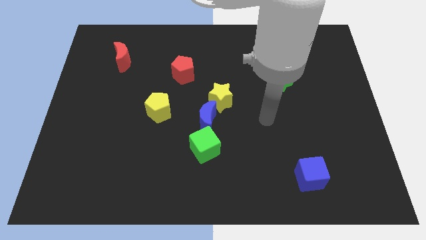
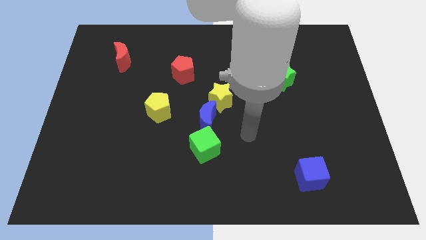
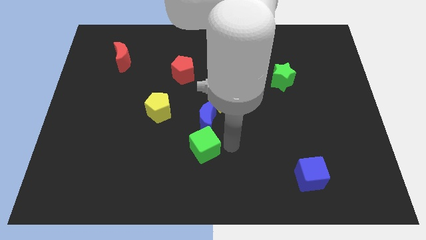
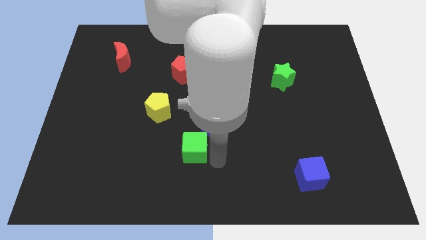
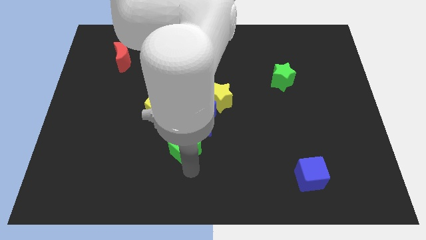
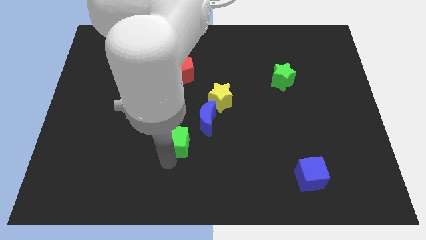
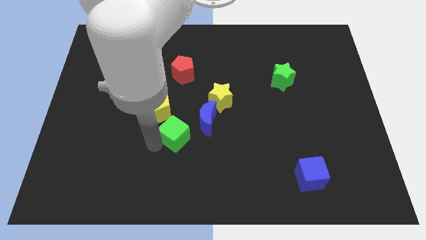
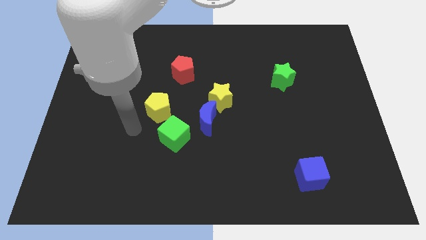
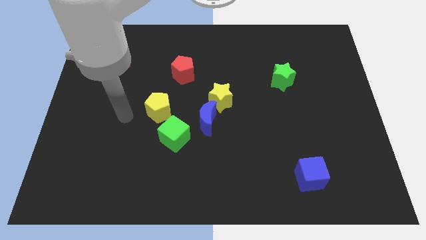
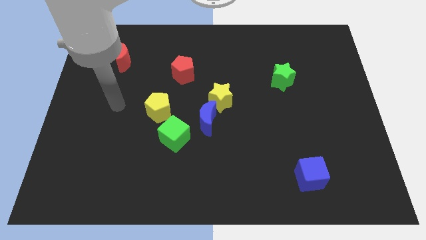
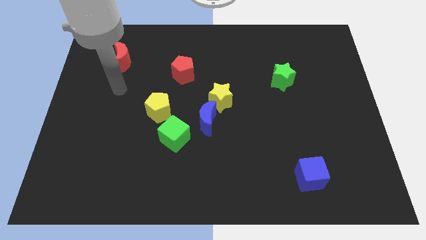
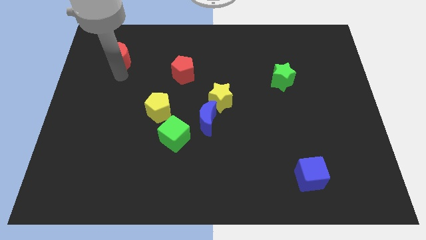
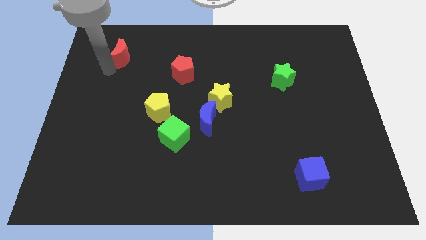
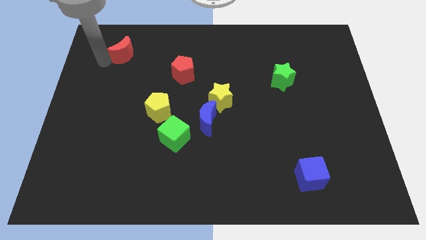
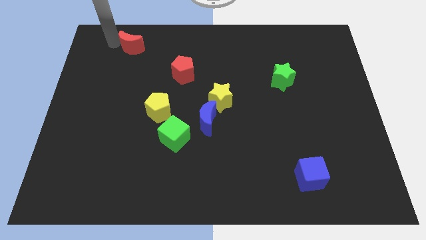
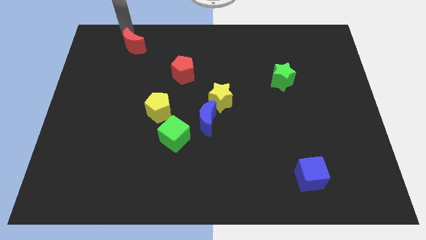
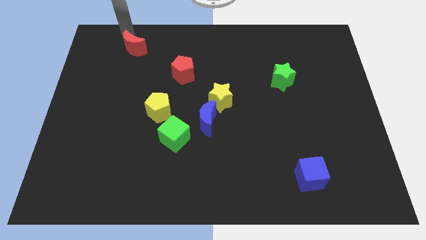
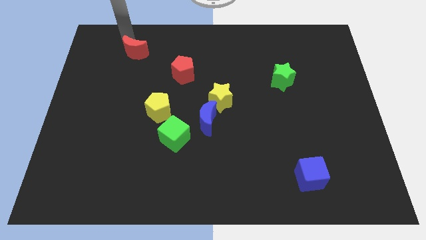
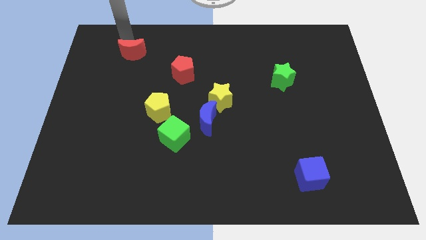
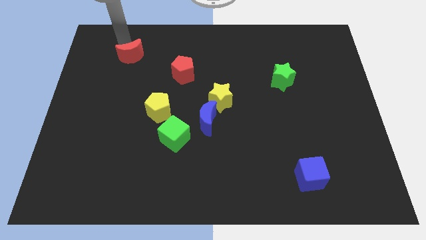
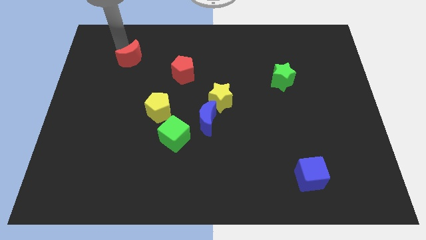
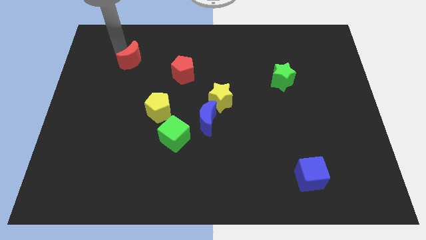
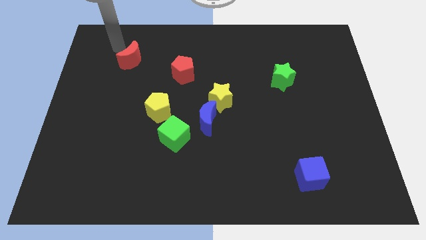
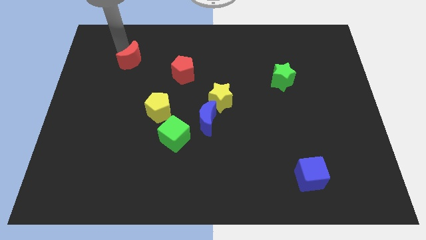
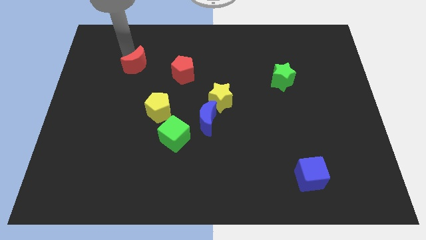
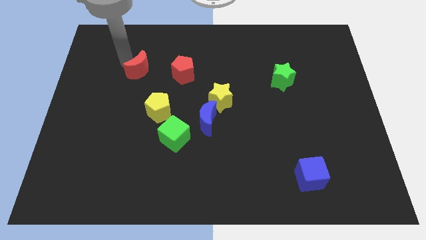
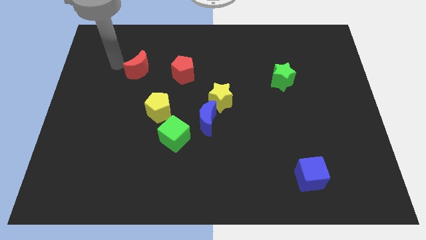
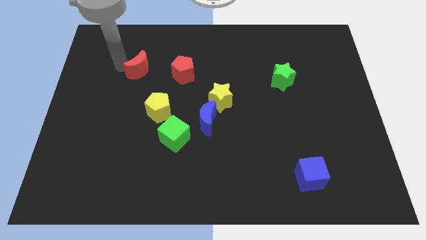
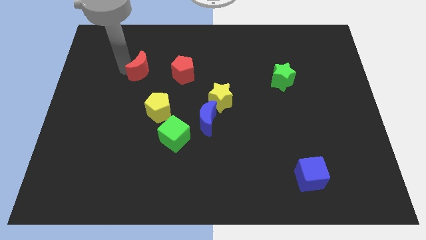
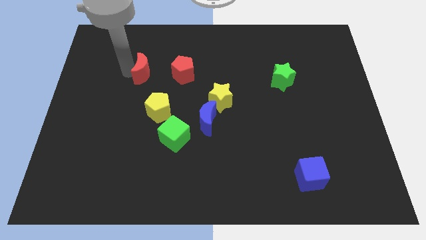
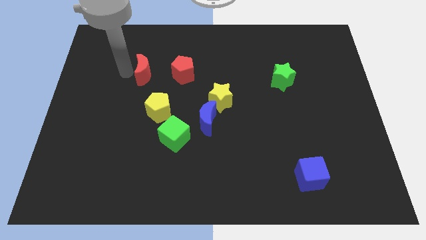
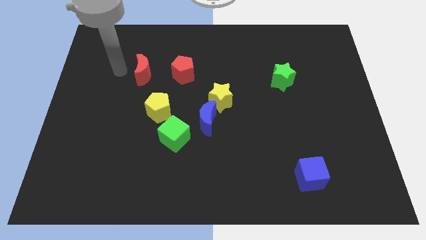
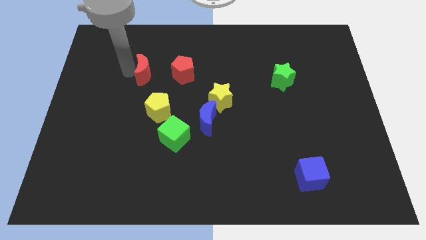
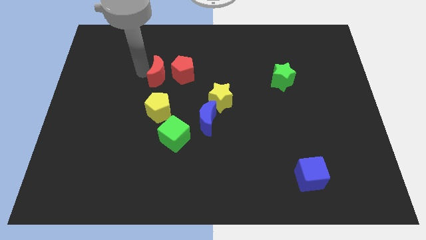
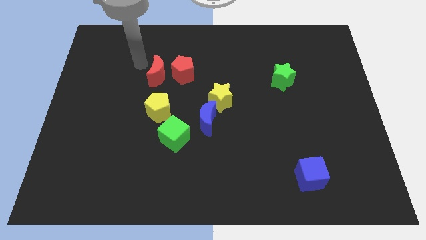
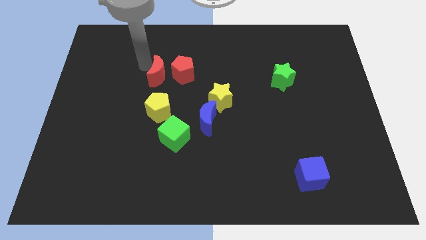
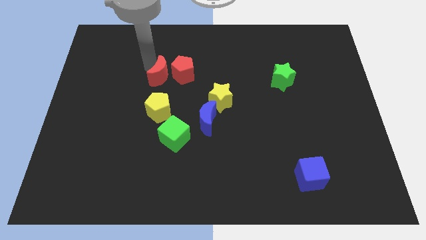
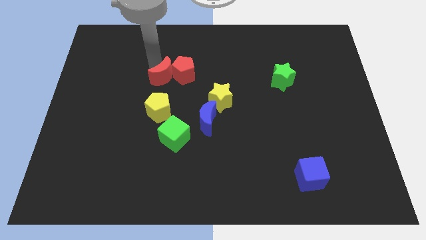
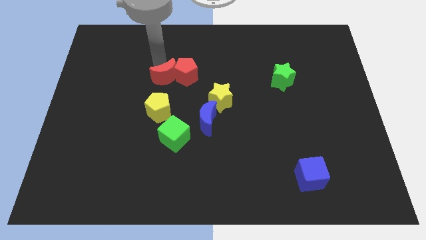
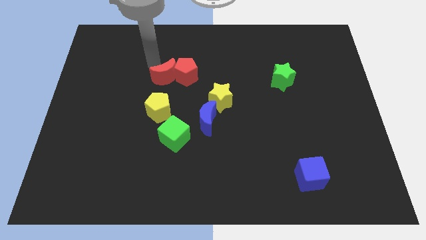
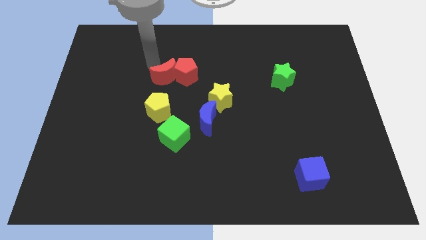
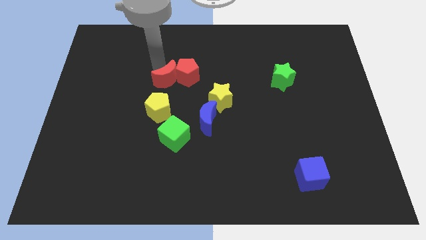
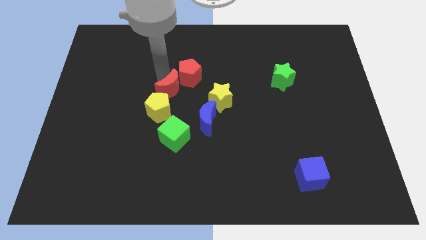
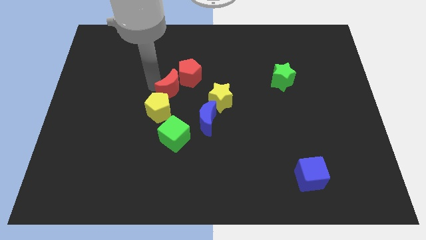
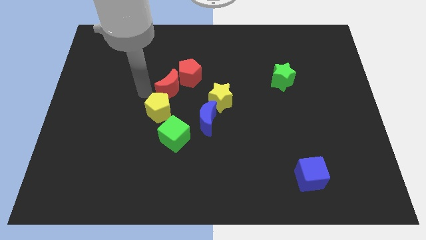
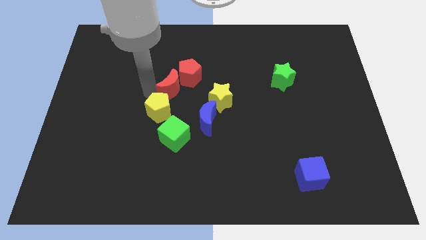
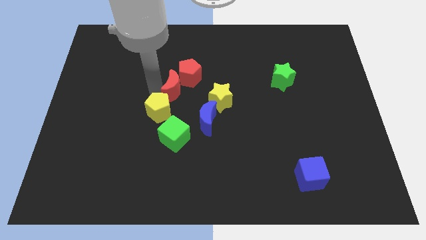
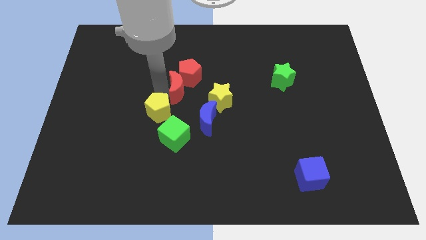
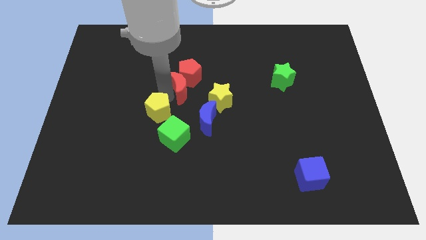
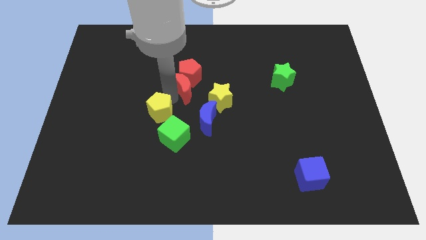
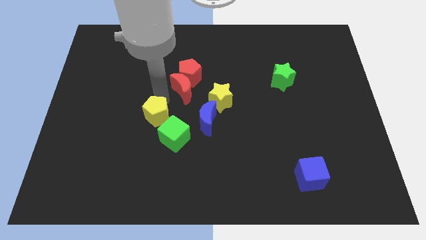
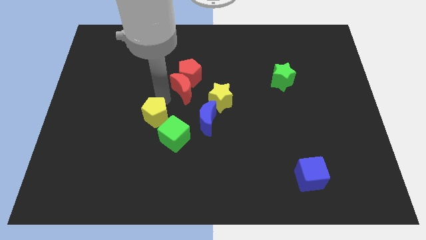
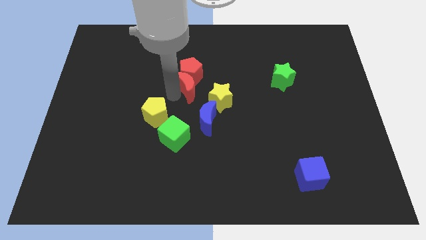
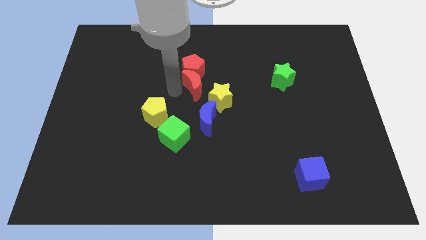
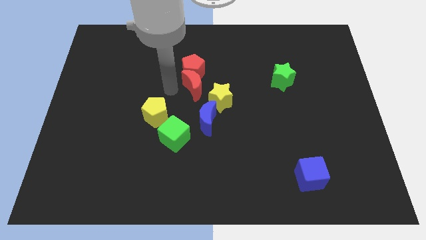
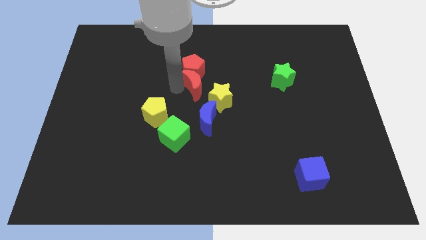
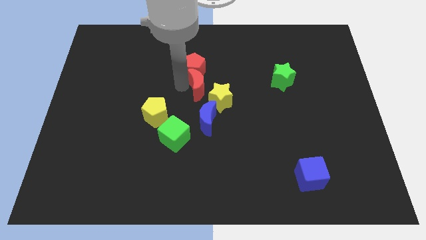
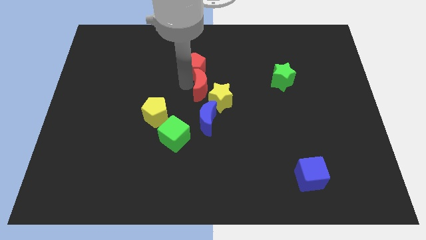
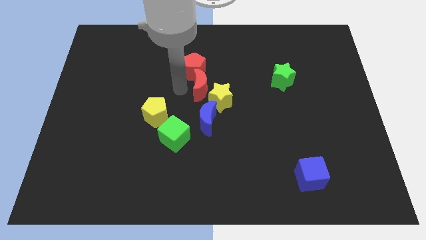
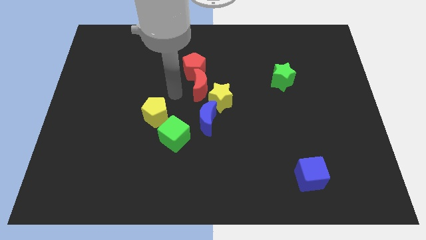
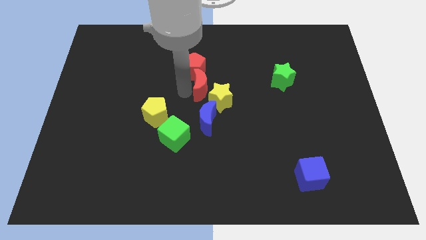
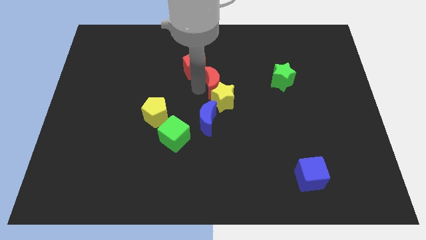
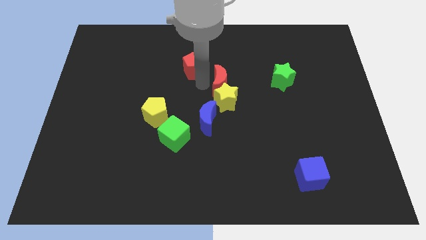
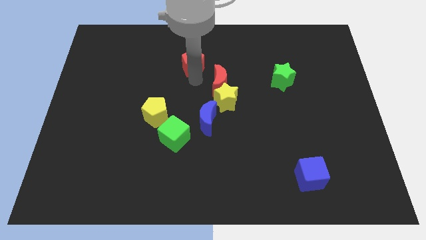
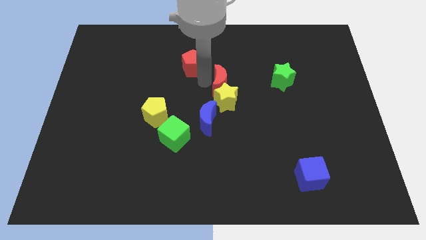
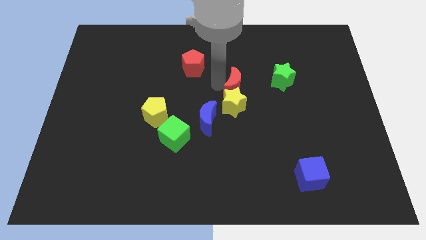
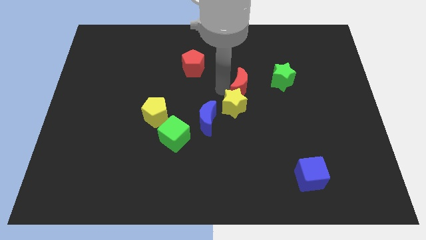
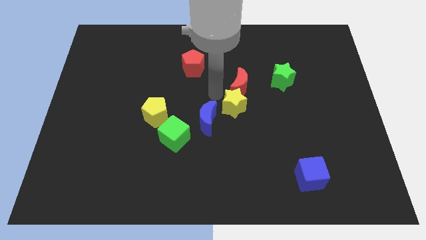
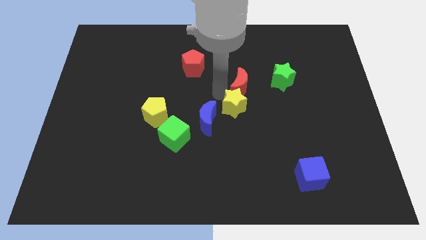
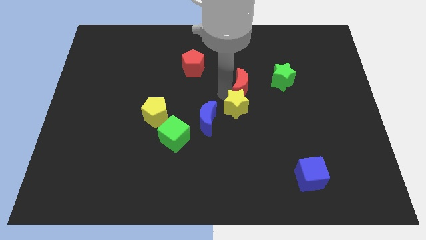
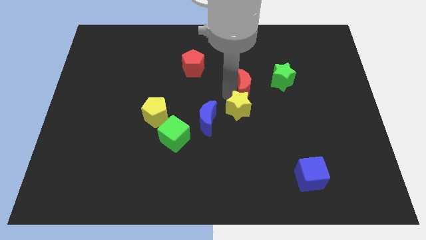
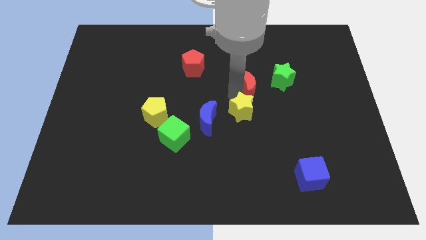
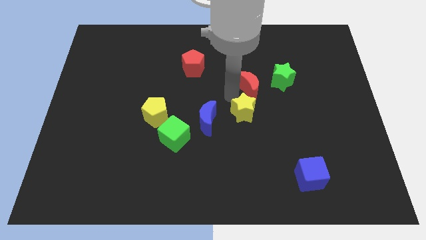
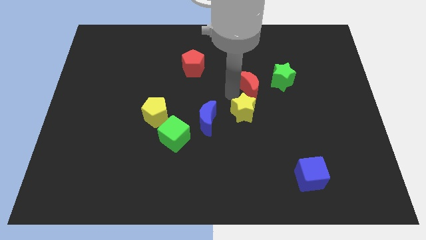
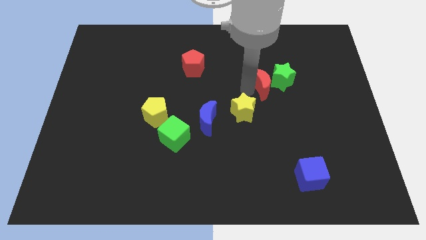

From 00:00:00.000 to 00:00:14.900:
push the red moon next to the green star

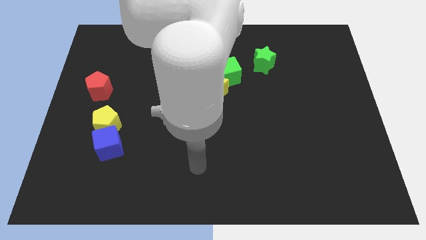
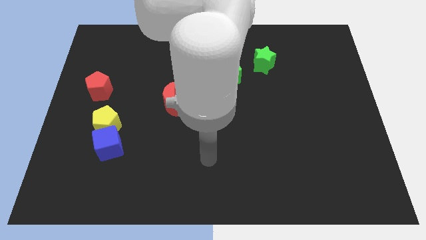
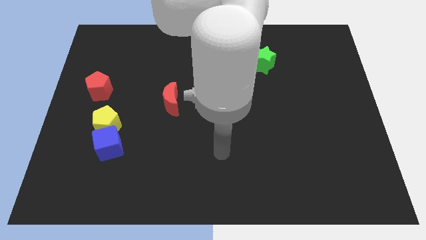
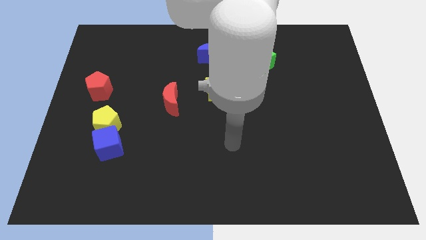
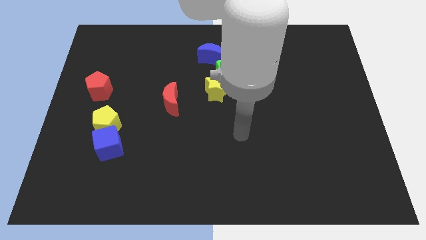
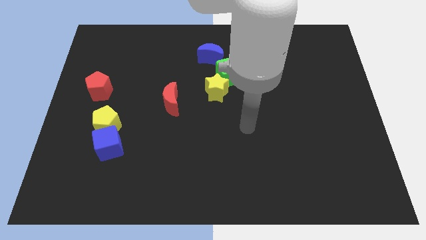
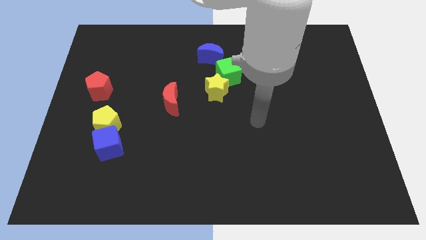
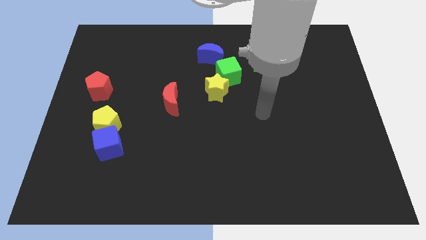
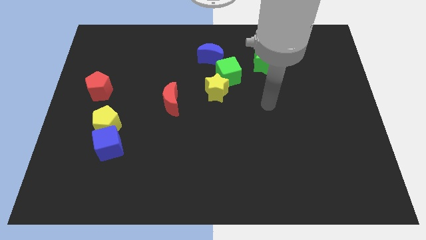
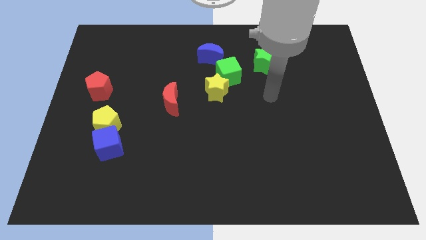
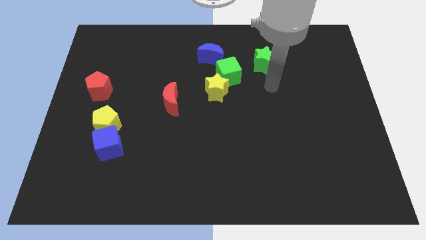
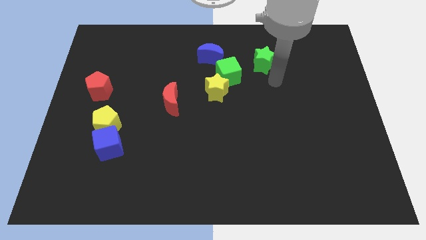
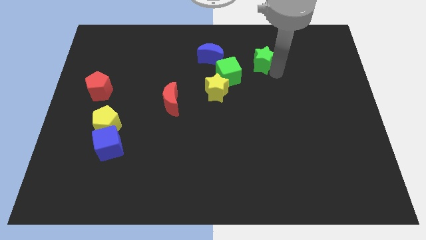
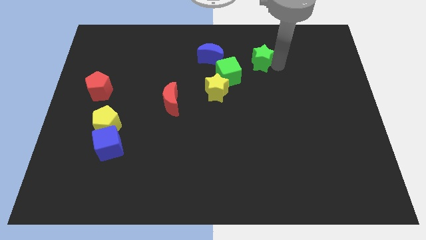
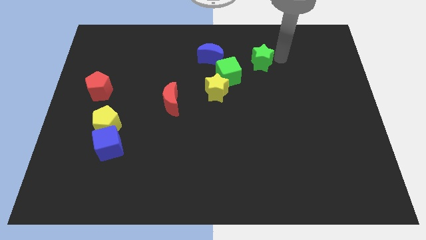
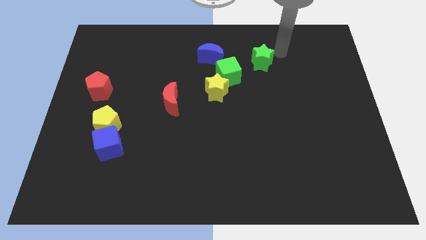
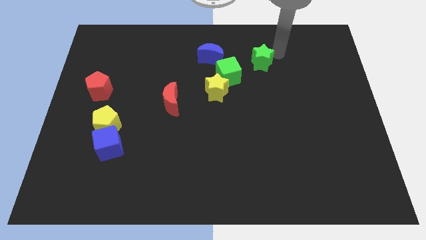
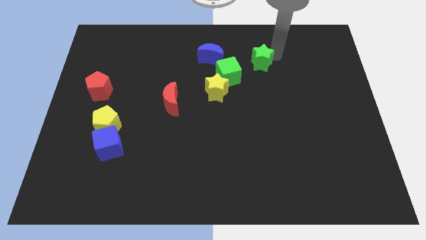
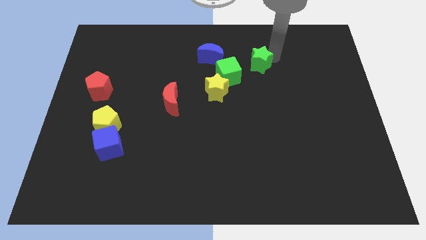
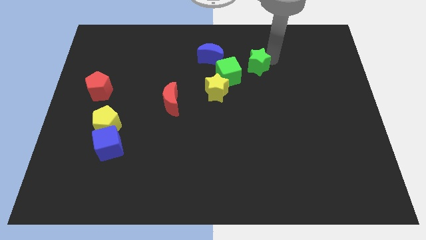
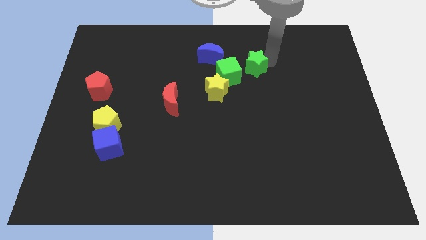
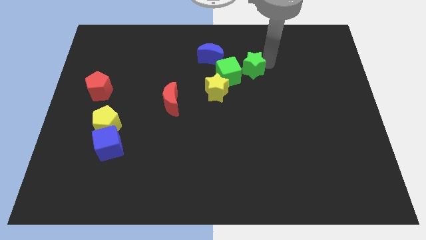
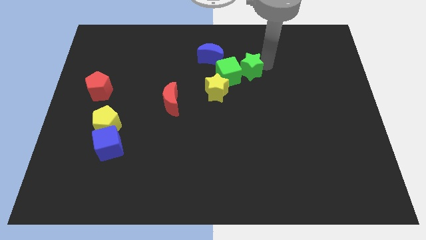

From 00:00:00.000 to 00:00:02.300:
slide the green star towards the green cube
